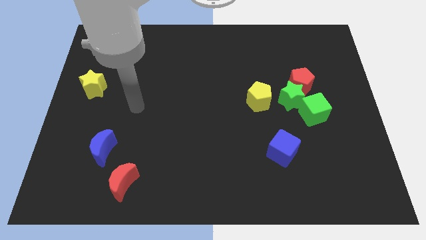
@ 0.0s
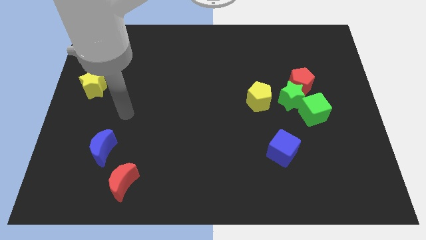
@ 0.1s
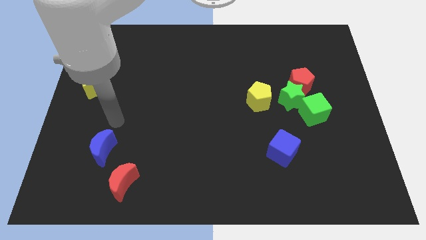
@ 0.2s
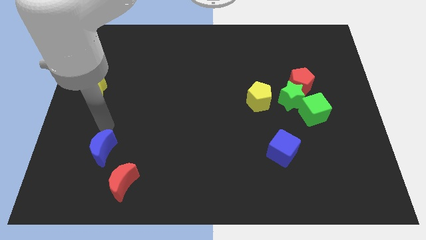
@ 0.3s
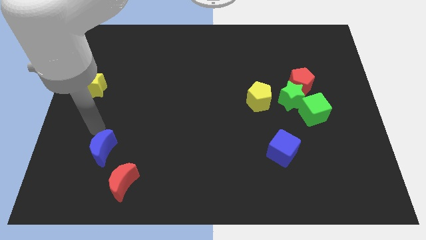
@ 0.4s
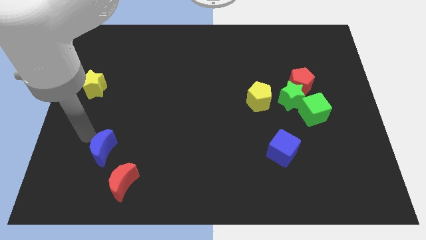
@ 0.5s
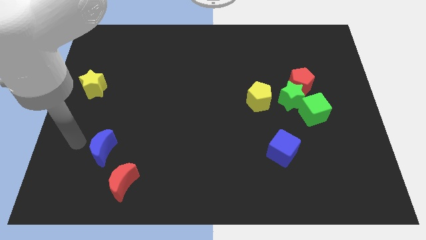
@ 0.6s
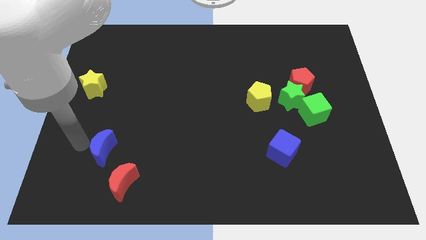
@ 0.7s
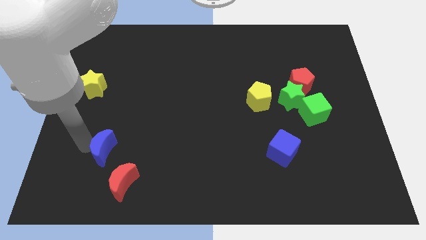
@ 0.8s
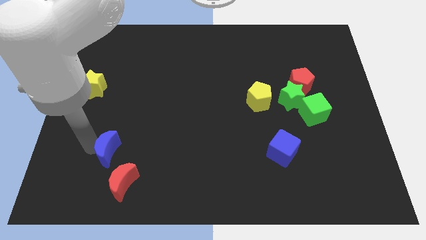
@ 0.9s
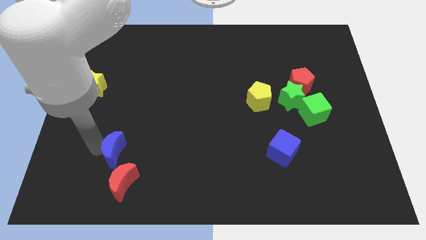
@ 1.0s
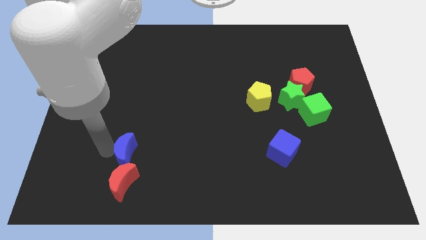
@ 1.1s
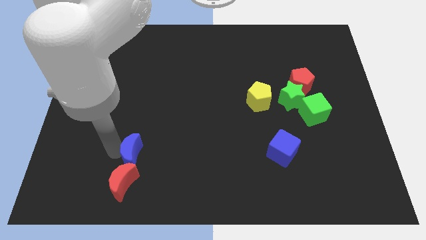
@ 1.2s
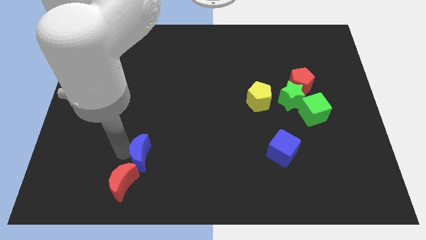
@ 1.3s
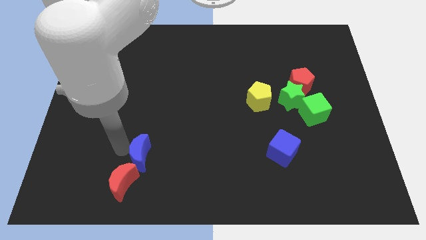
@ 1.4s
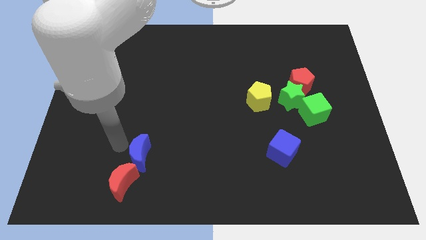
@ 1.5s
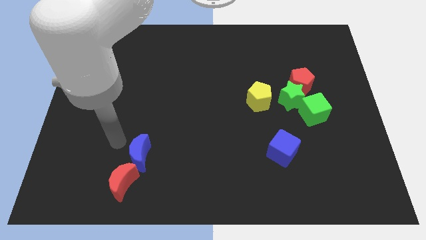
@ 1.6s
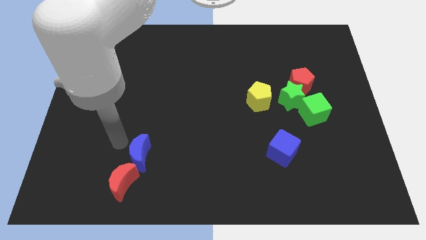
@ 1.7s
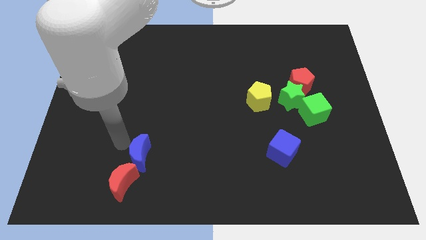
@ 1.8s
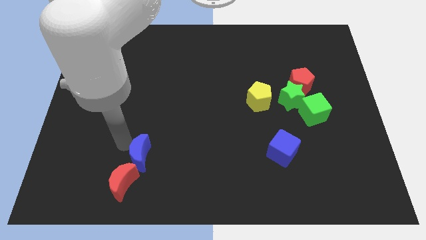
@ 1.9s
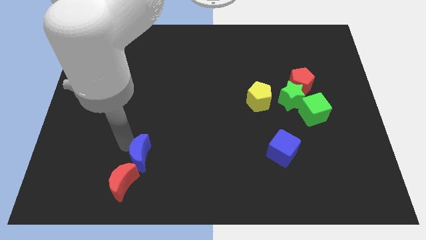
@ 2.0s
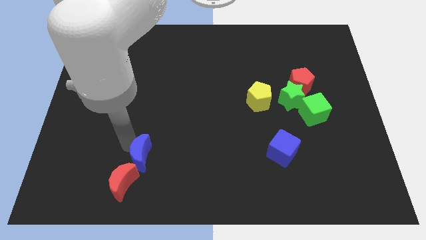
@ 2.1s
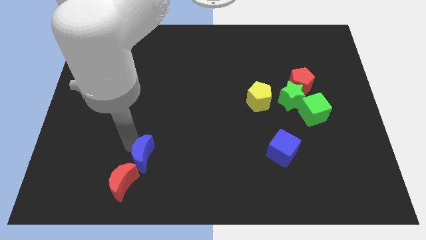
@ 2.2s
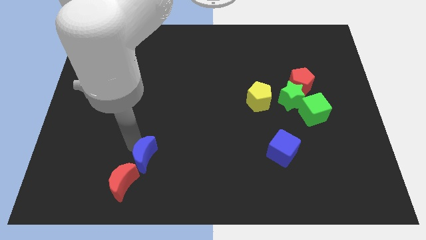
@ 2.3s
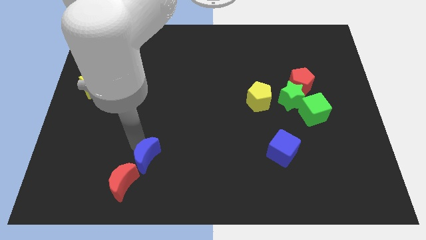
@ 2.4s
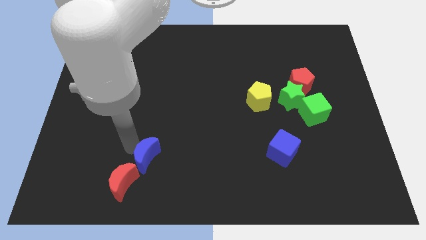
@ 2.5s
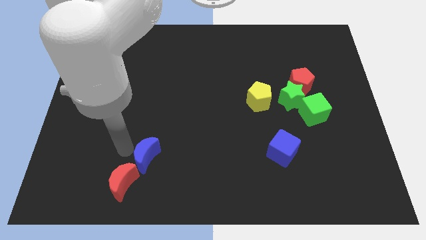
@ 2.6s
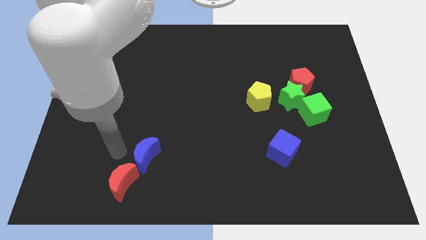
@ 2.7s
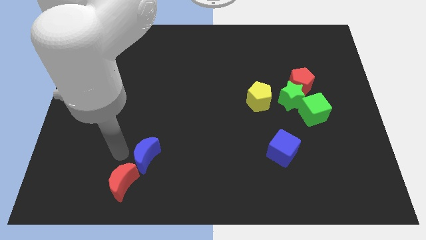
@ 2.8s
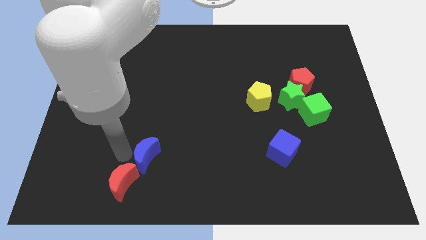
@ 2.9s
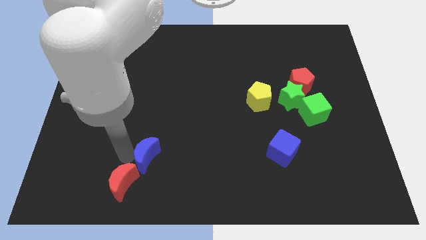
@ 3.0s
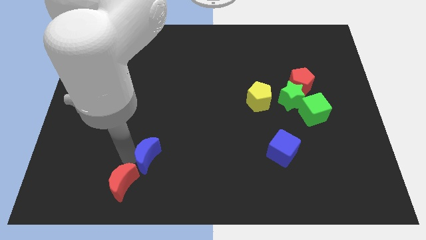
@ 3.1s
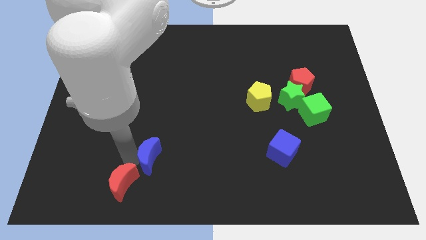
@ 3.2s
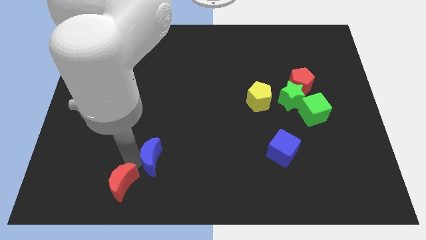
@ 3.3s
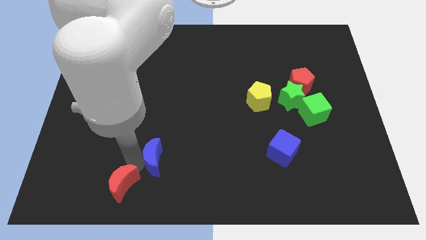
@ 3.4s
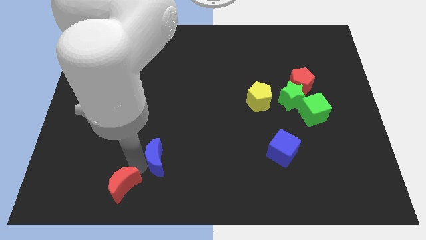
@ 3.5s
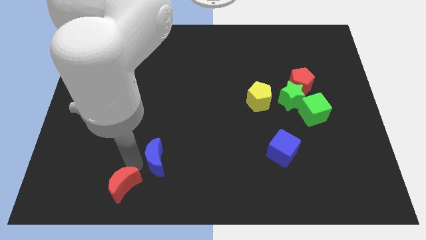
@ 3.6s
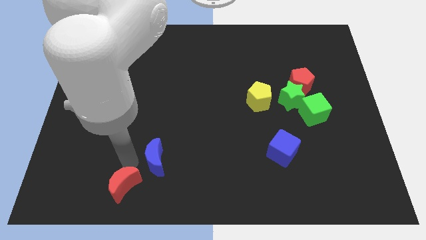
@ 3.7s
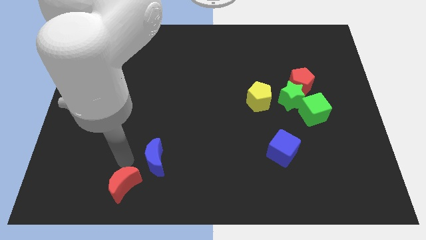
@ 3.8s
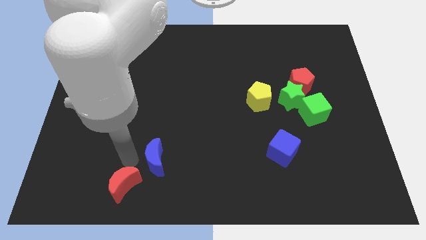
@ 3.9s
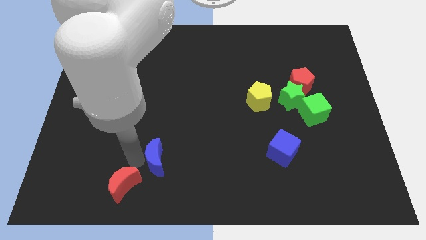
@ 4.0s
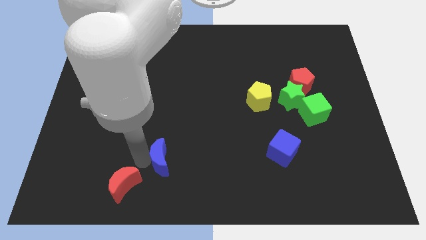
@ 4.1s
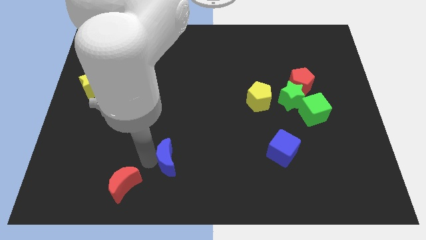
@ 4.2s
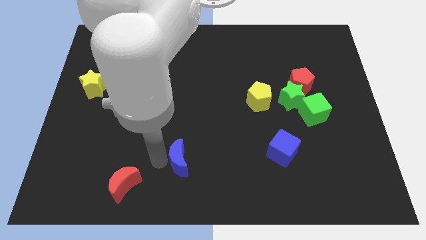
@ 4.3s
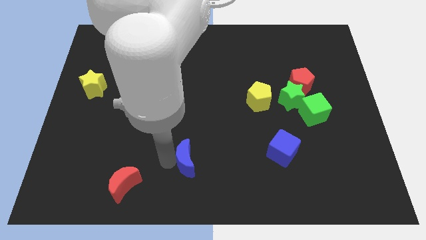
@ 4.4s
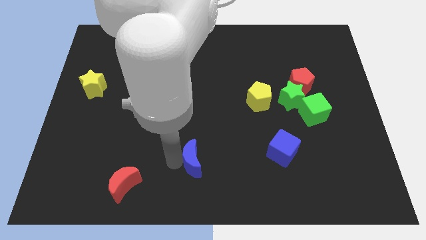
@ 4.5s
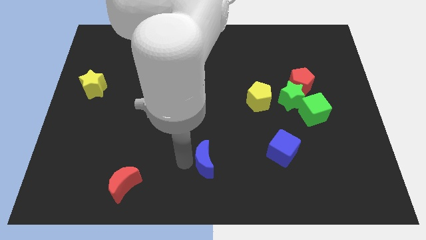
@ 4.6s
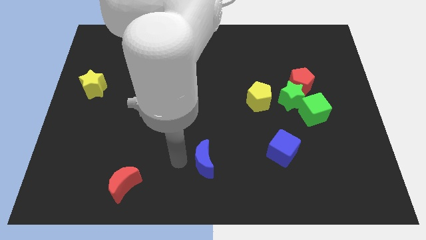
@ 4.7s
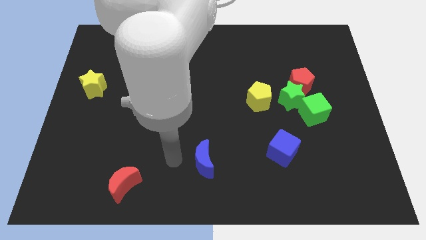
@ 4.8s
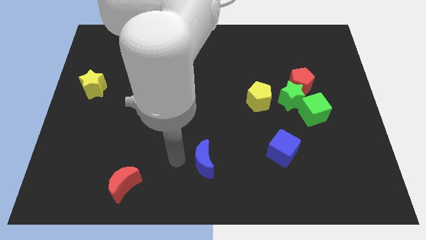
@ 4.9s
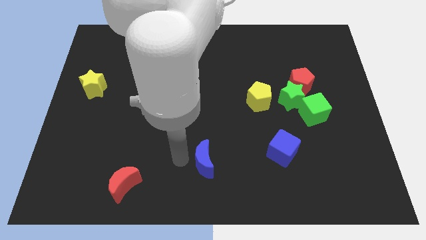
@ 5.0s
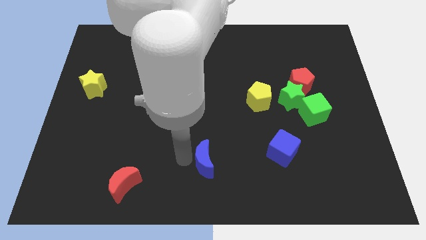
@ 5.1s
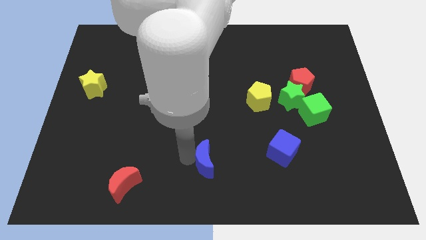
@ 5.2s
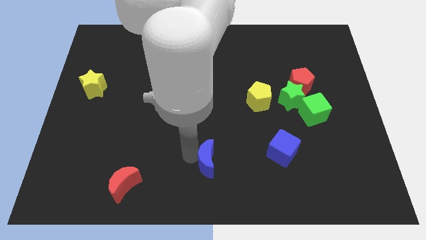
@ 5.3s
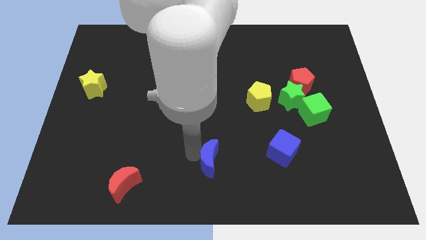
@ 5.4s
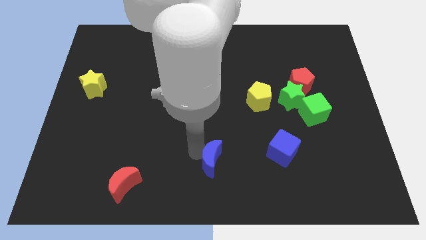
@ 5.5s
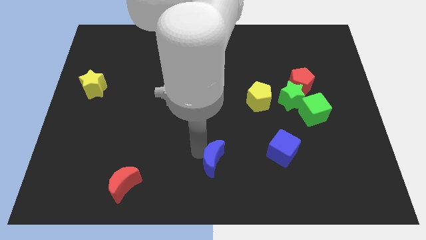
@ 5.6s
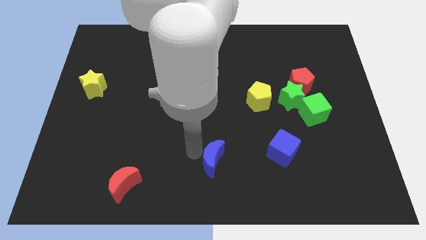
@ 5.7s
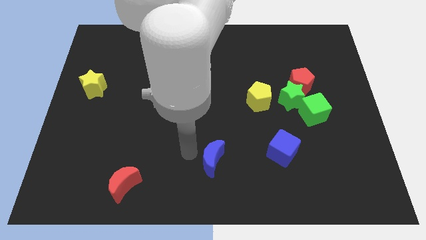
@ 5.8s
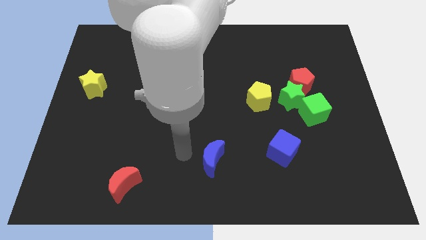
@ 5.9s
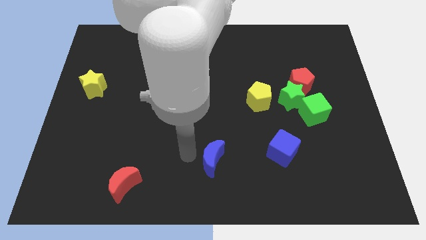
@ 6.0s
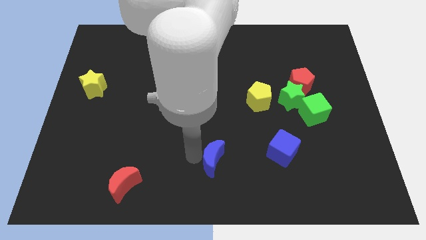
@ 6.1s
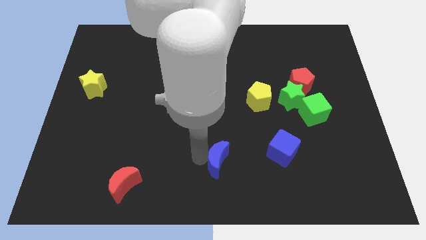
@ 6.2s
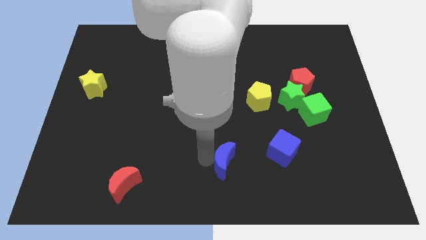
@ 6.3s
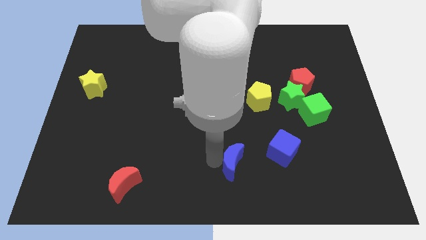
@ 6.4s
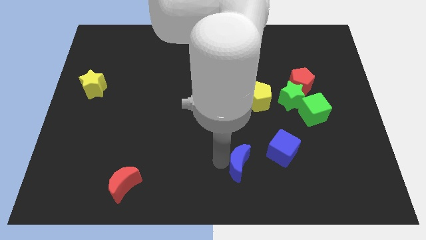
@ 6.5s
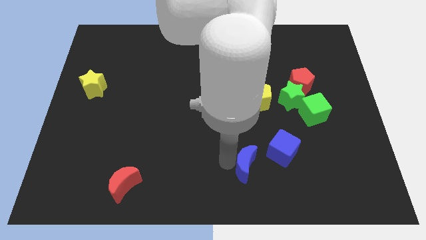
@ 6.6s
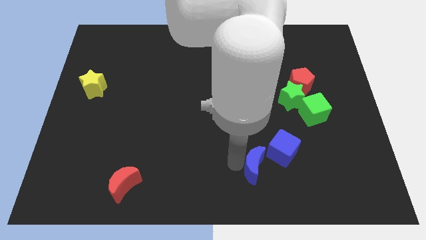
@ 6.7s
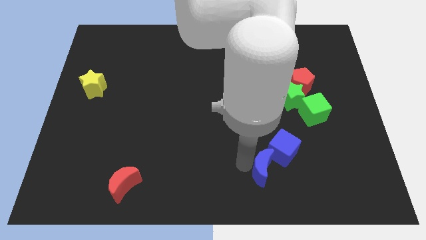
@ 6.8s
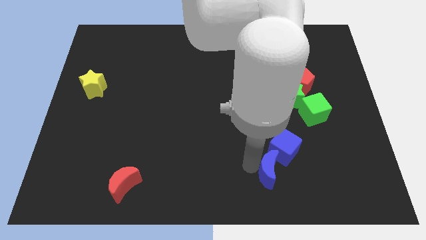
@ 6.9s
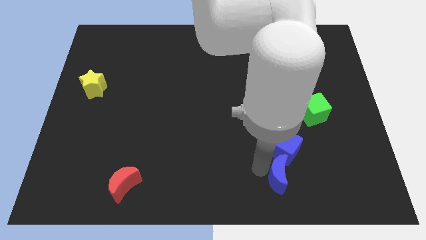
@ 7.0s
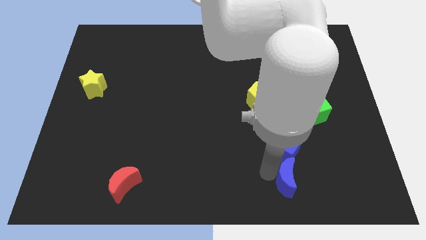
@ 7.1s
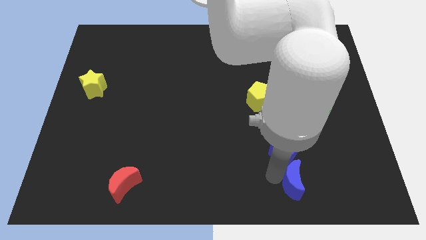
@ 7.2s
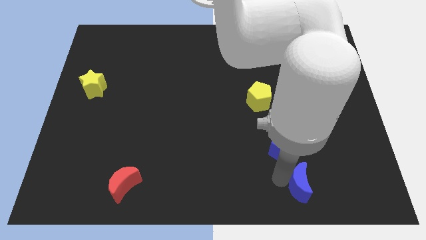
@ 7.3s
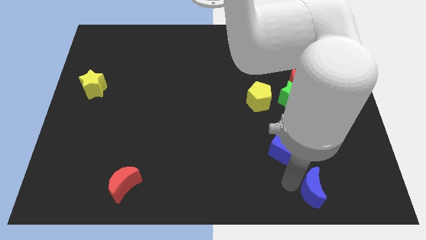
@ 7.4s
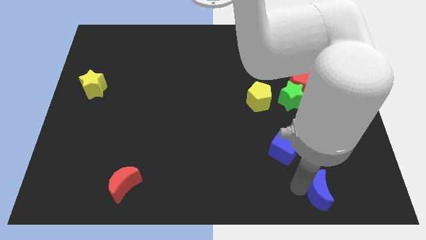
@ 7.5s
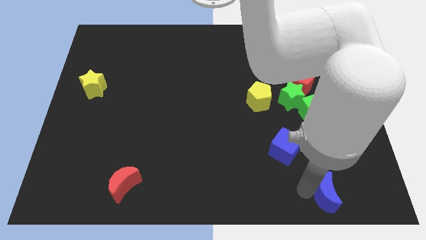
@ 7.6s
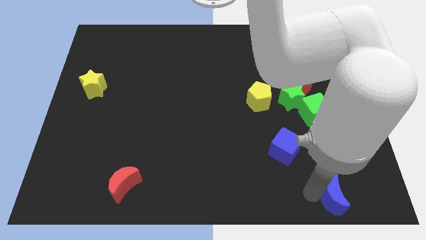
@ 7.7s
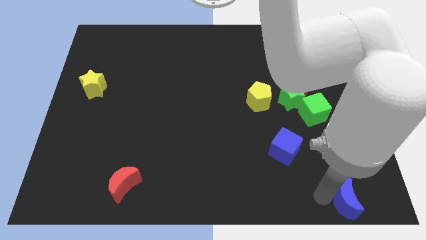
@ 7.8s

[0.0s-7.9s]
move the blue moon to the bottom right of the board
